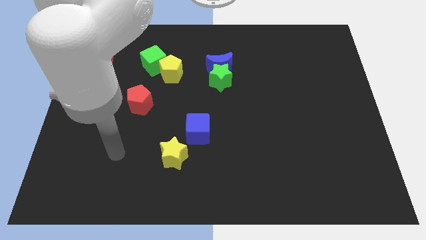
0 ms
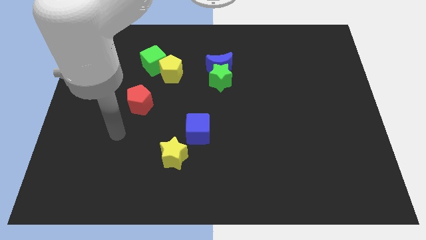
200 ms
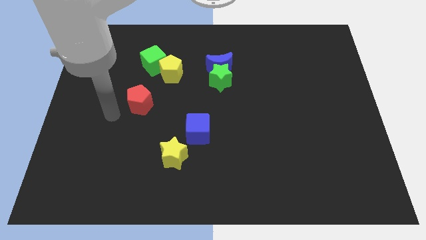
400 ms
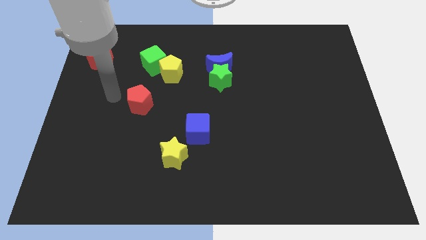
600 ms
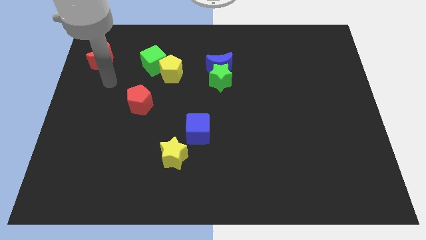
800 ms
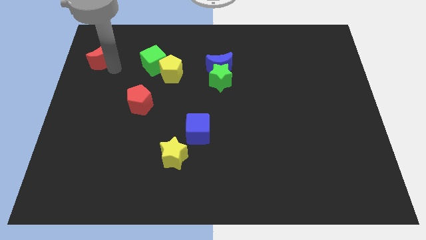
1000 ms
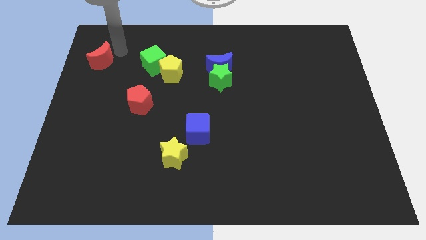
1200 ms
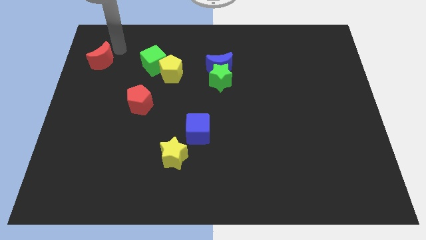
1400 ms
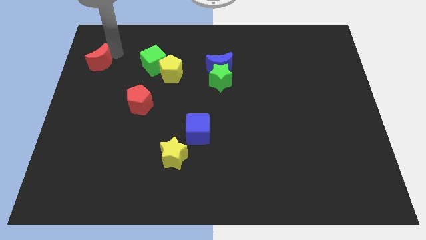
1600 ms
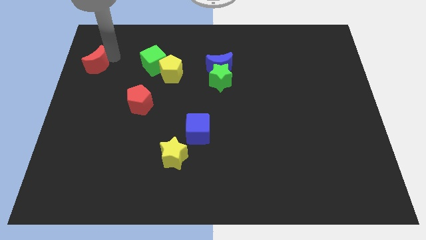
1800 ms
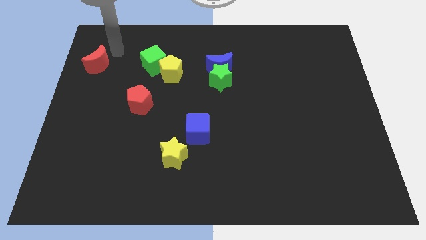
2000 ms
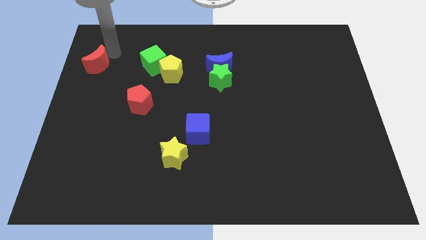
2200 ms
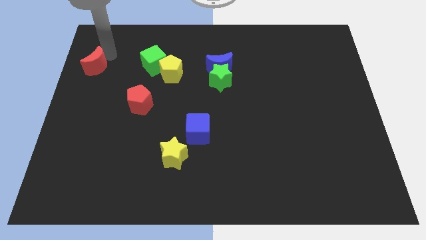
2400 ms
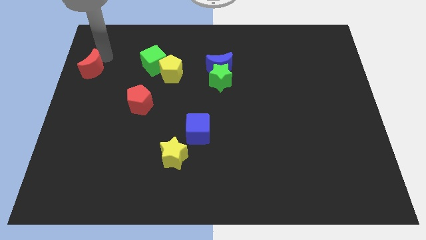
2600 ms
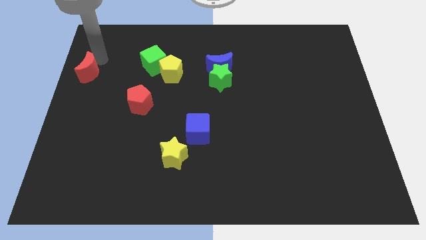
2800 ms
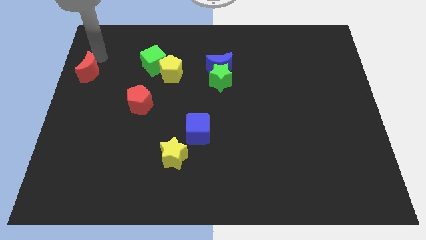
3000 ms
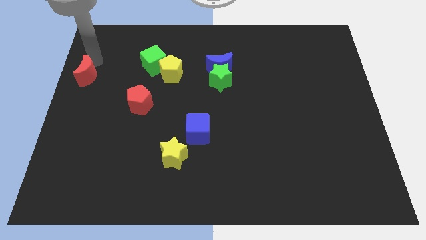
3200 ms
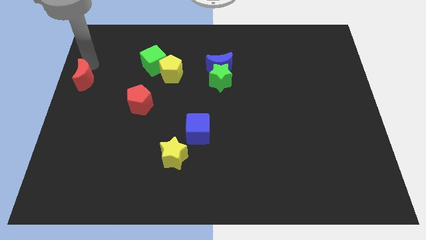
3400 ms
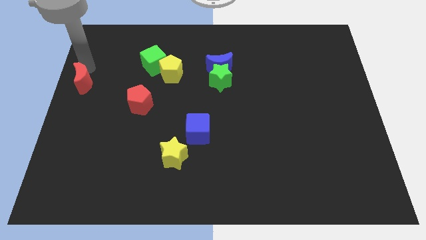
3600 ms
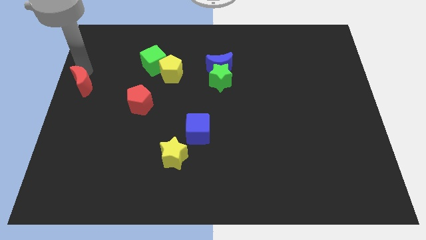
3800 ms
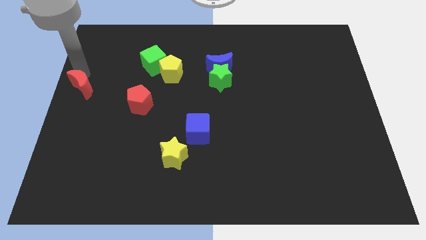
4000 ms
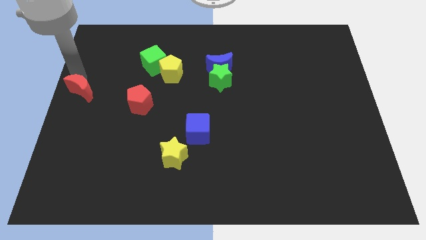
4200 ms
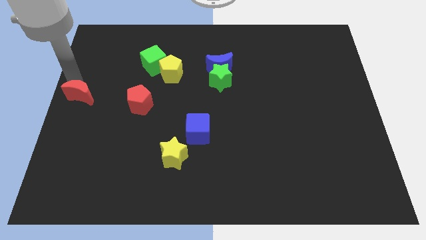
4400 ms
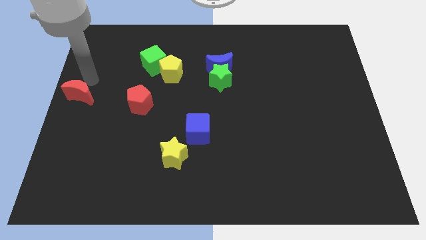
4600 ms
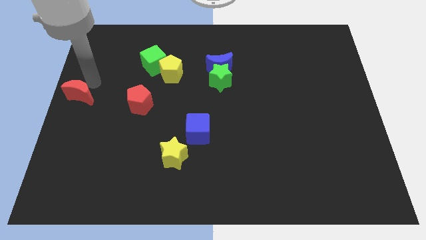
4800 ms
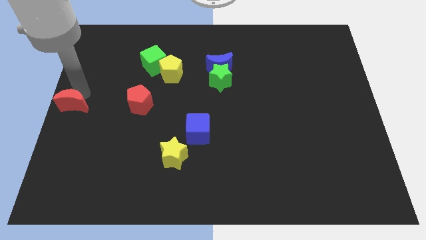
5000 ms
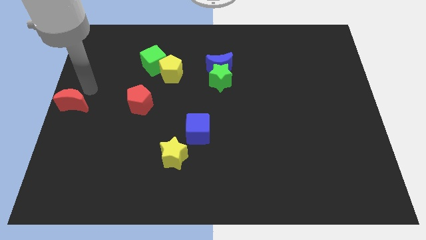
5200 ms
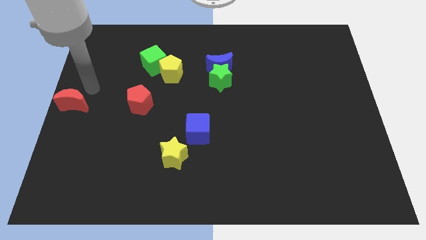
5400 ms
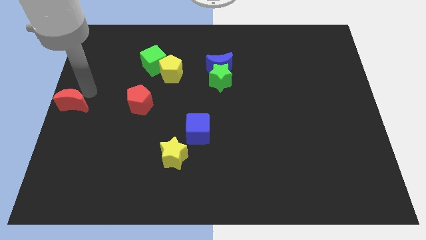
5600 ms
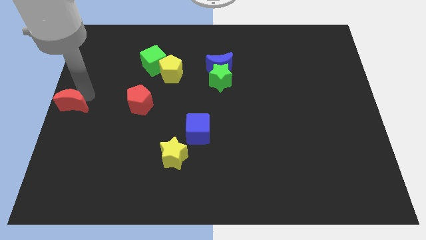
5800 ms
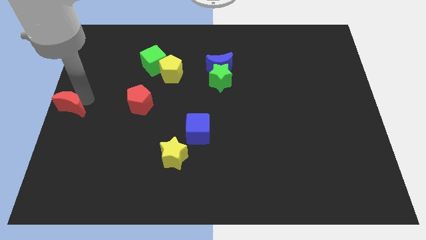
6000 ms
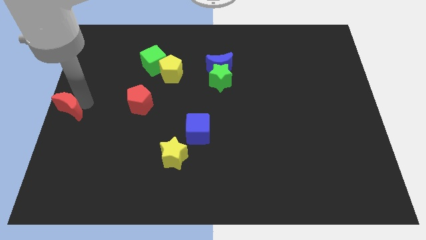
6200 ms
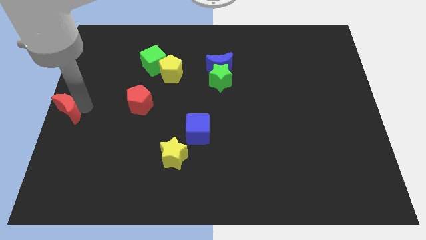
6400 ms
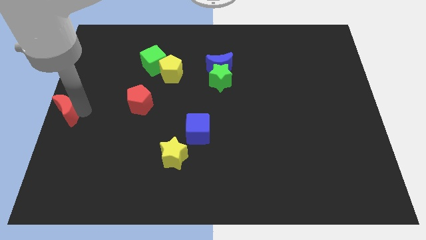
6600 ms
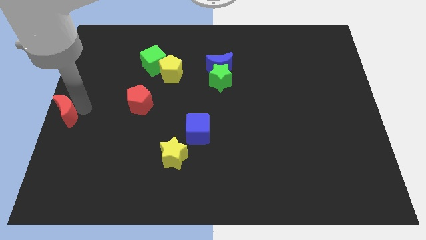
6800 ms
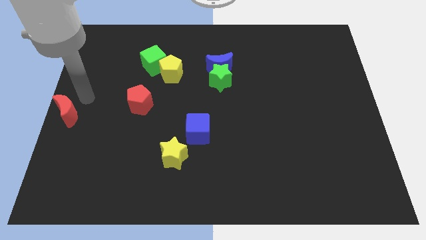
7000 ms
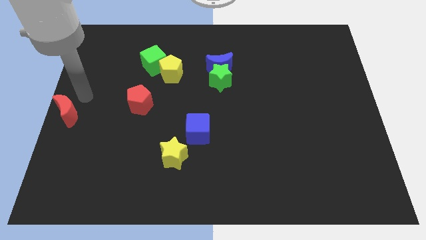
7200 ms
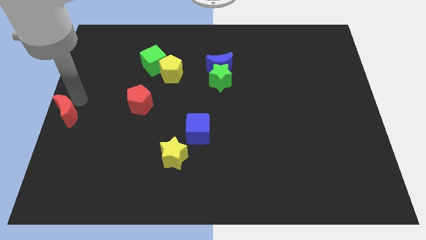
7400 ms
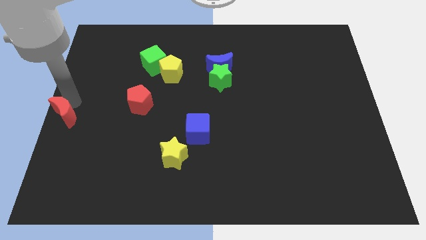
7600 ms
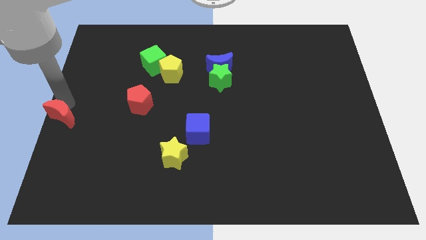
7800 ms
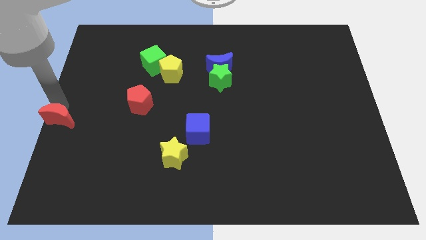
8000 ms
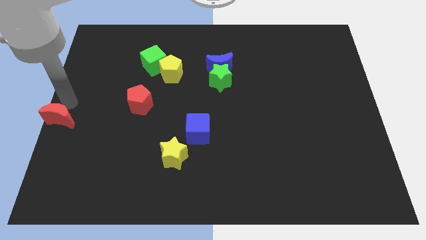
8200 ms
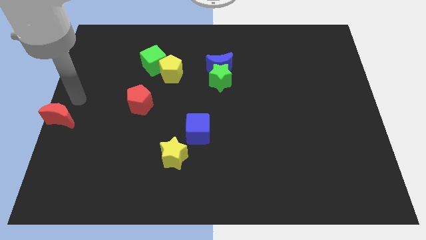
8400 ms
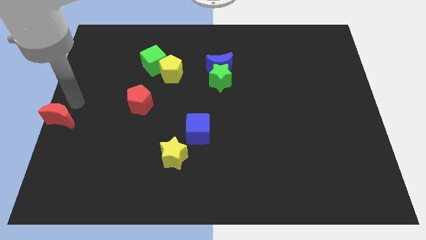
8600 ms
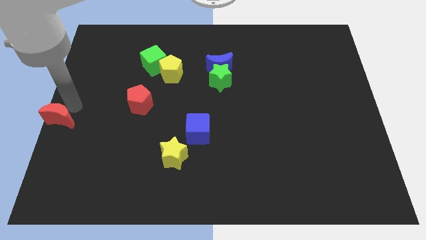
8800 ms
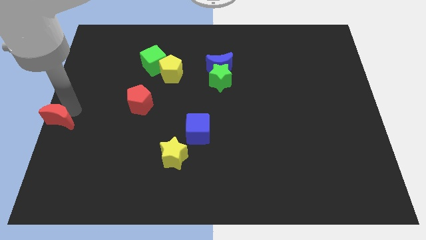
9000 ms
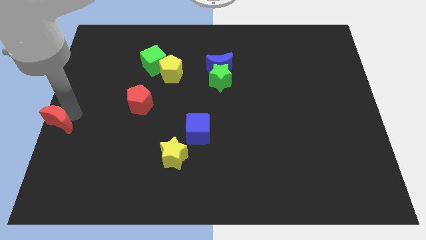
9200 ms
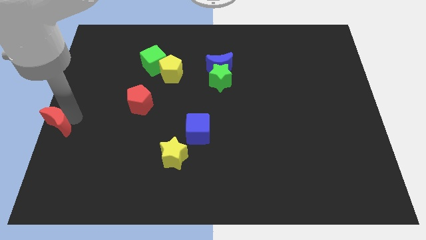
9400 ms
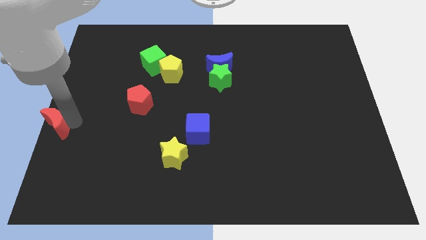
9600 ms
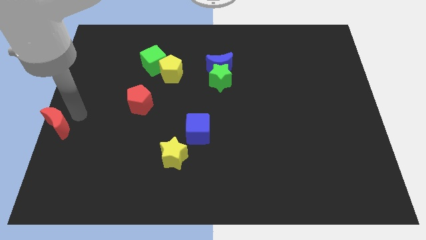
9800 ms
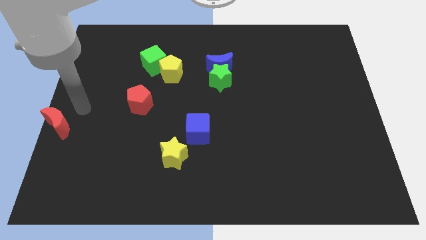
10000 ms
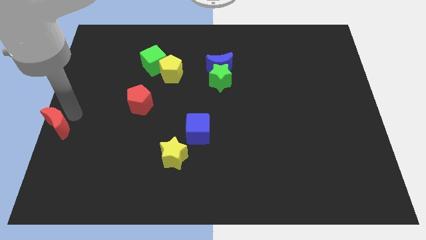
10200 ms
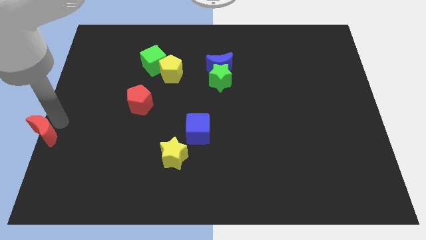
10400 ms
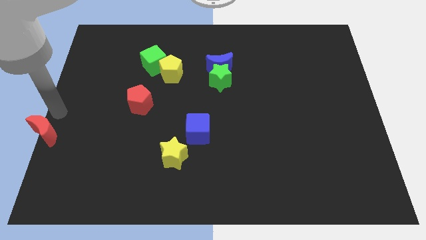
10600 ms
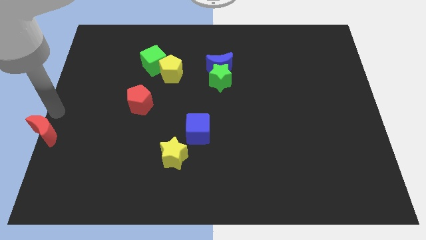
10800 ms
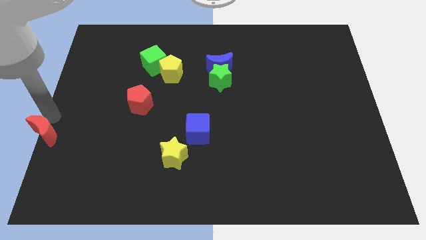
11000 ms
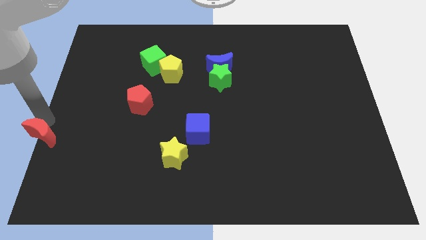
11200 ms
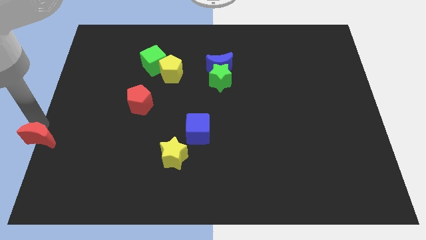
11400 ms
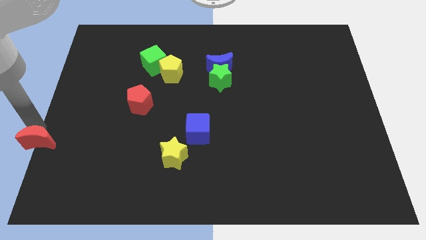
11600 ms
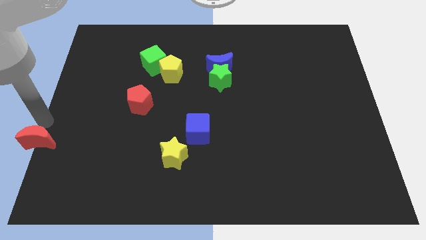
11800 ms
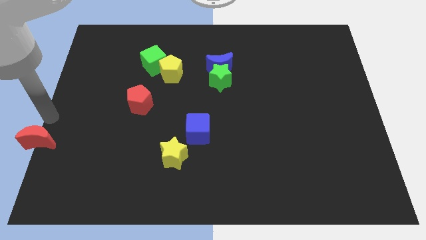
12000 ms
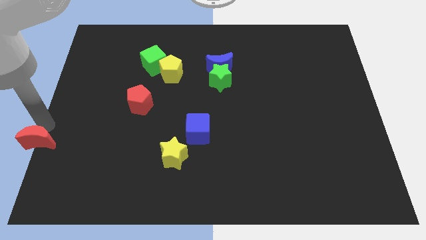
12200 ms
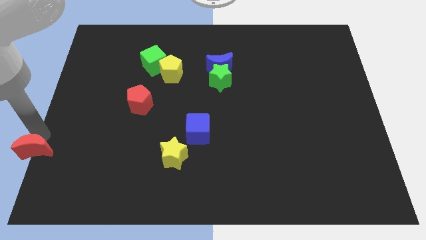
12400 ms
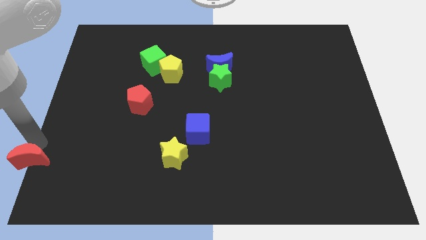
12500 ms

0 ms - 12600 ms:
put the red moon to the lower left corner

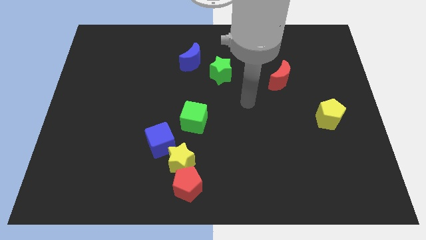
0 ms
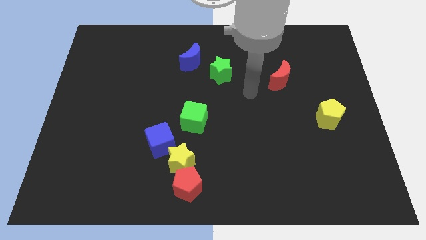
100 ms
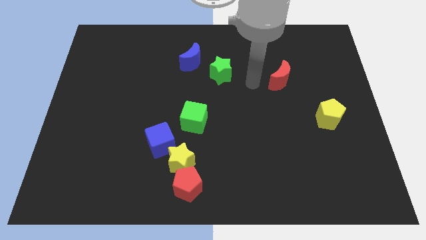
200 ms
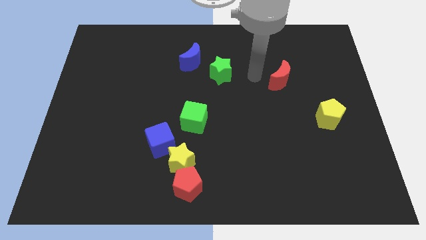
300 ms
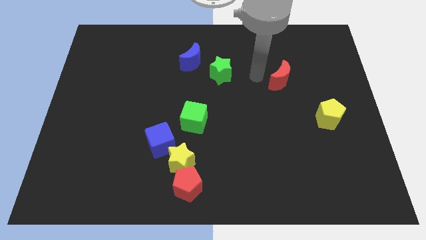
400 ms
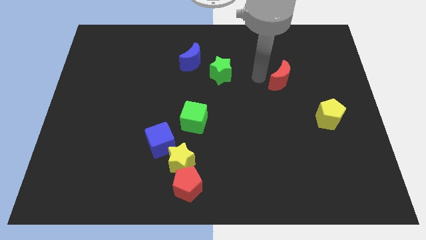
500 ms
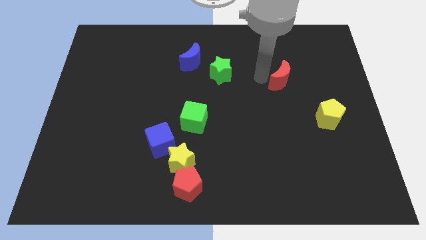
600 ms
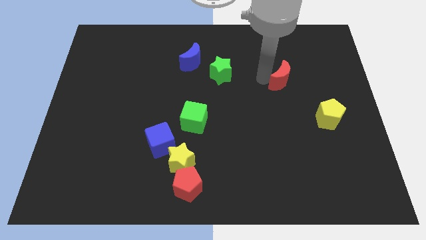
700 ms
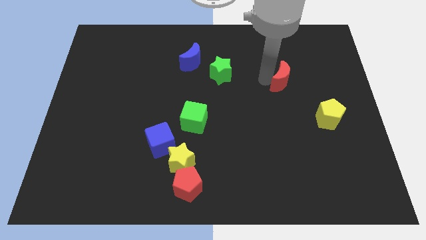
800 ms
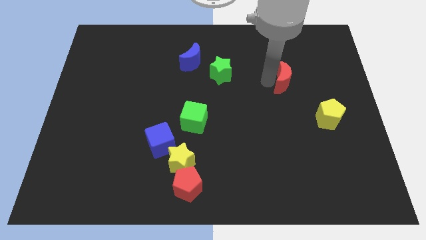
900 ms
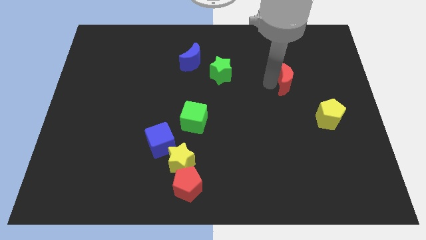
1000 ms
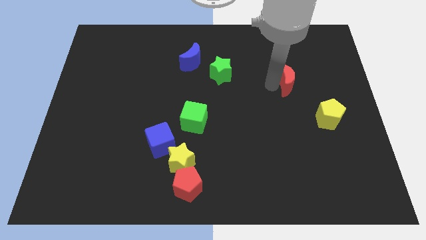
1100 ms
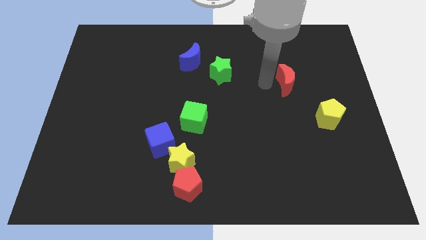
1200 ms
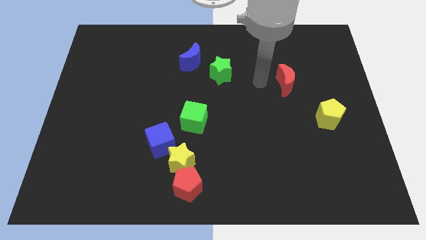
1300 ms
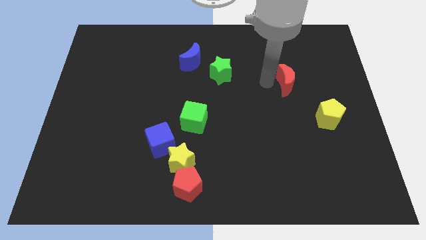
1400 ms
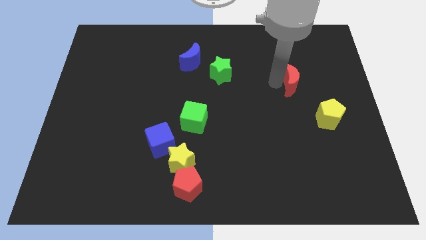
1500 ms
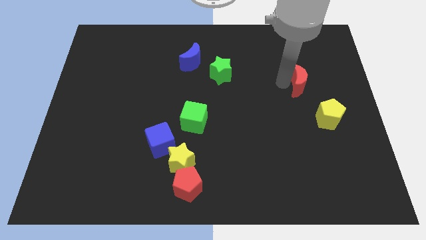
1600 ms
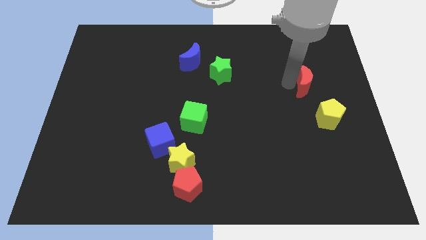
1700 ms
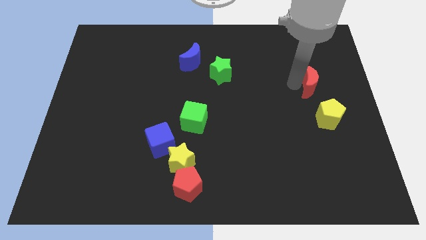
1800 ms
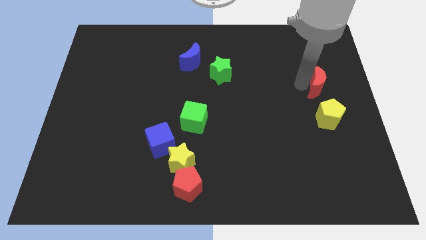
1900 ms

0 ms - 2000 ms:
push the red moon to the center right
